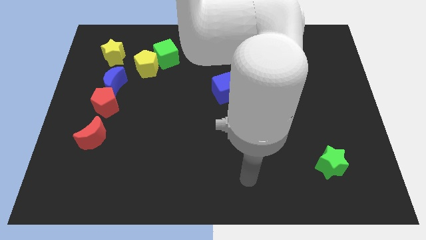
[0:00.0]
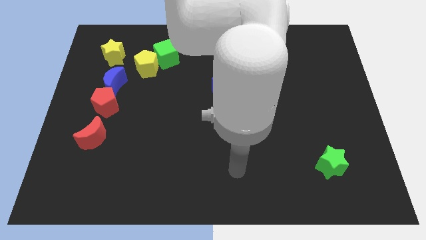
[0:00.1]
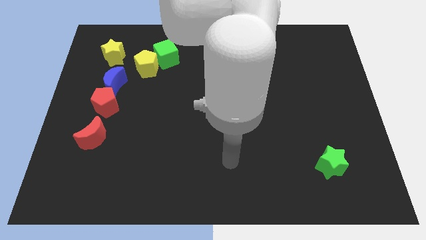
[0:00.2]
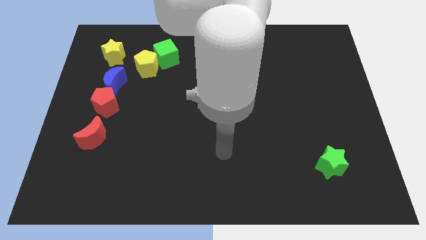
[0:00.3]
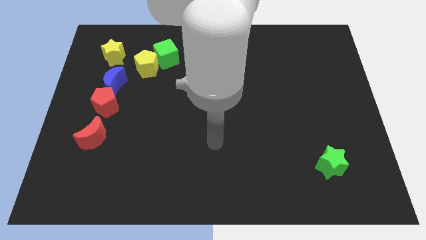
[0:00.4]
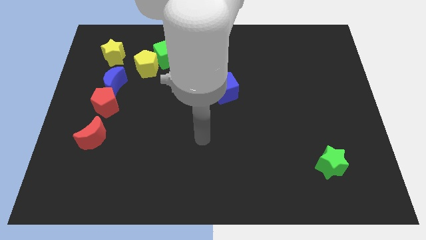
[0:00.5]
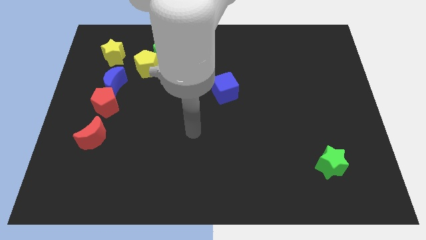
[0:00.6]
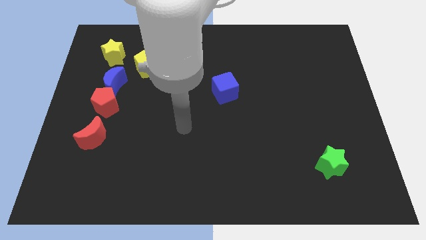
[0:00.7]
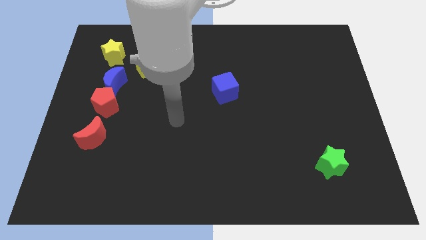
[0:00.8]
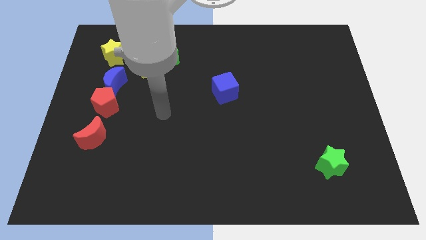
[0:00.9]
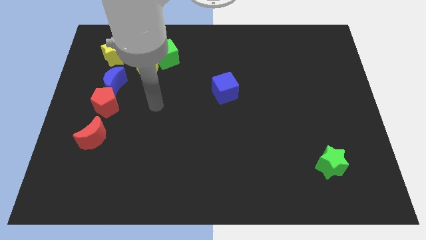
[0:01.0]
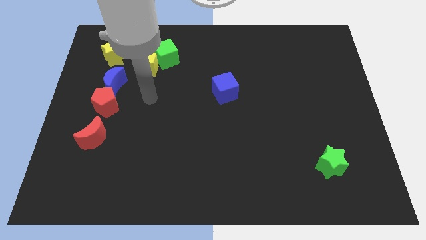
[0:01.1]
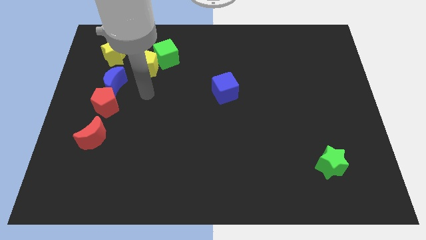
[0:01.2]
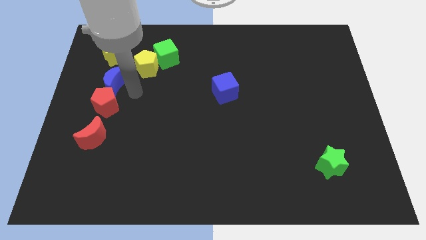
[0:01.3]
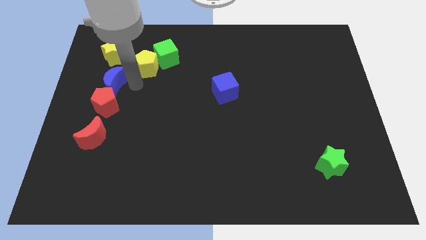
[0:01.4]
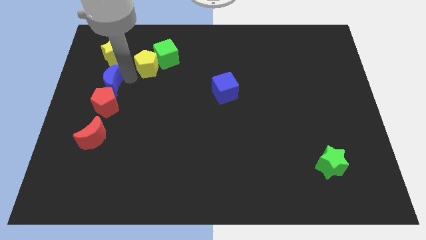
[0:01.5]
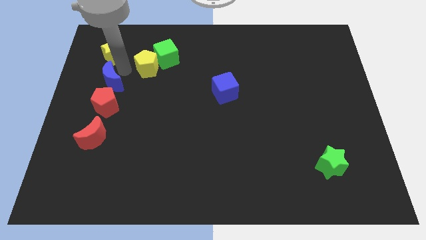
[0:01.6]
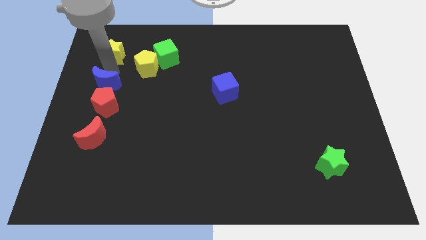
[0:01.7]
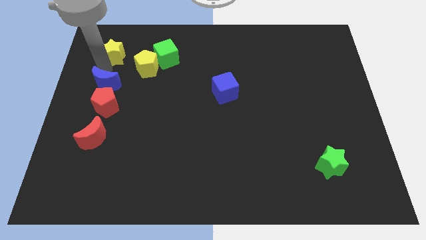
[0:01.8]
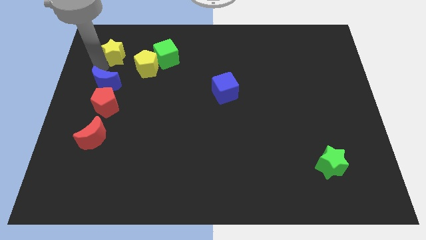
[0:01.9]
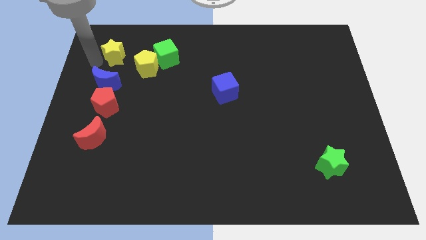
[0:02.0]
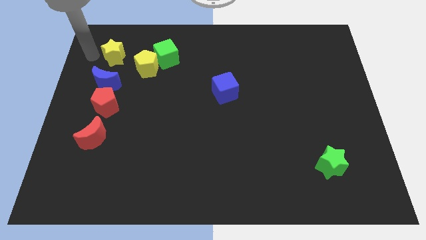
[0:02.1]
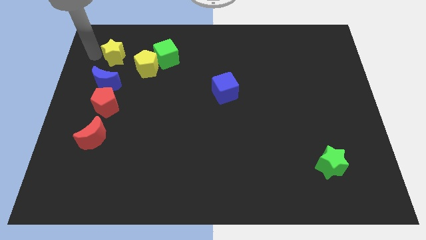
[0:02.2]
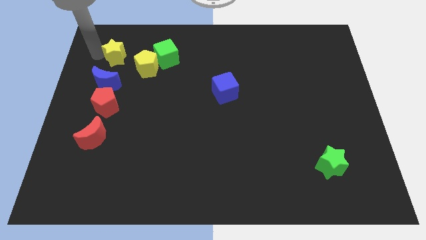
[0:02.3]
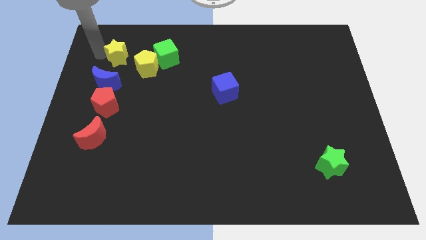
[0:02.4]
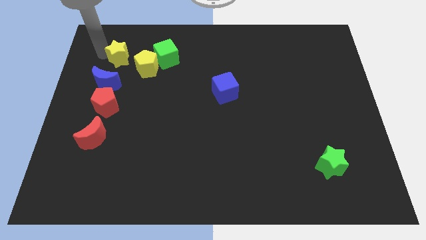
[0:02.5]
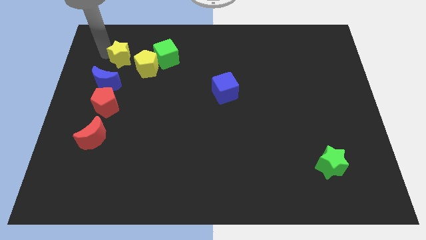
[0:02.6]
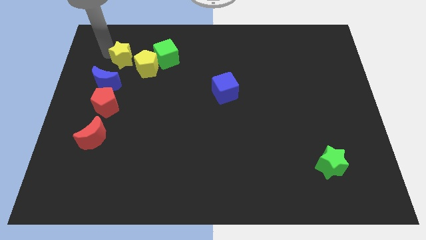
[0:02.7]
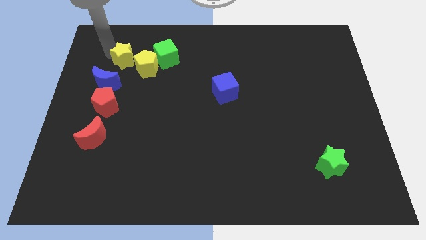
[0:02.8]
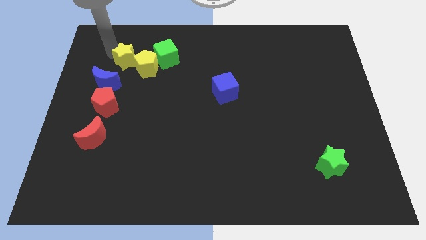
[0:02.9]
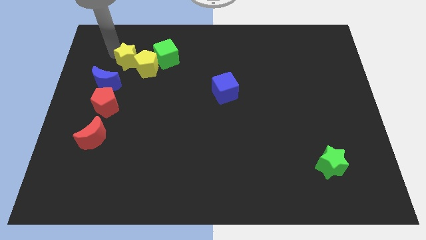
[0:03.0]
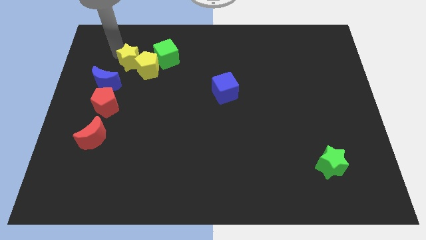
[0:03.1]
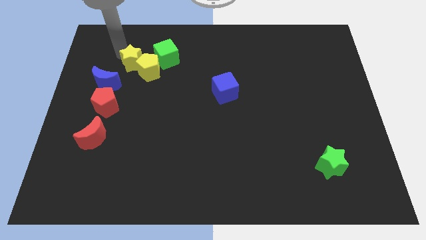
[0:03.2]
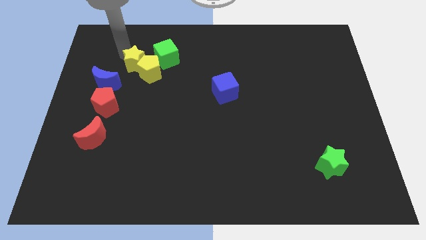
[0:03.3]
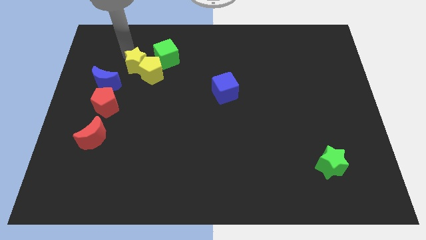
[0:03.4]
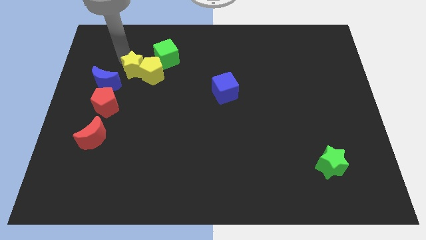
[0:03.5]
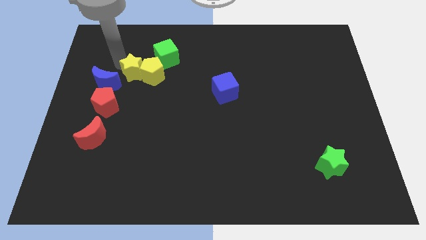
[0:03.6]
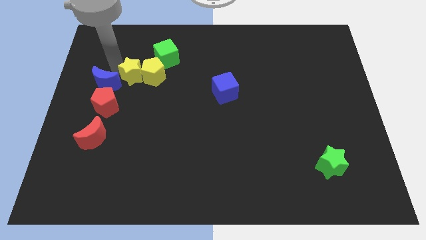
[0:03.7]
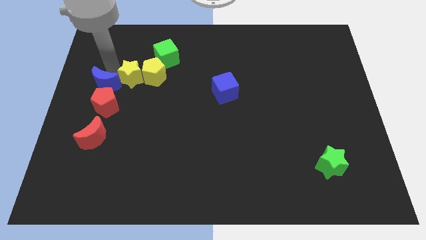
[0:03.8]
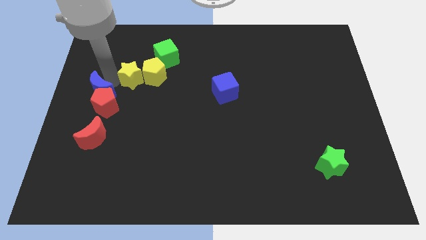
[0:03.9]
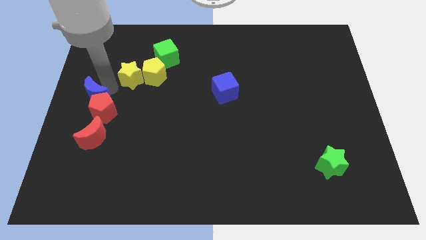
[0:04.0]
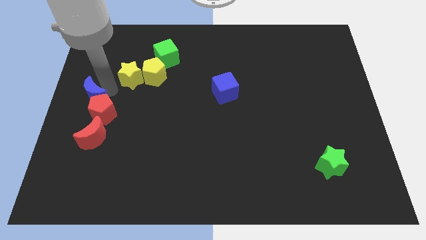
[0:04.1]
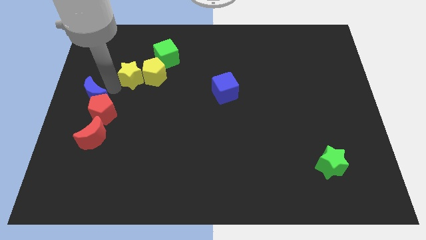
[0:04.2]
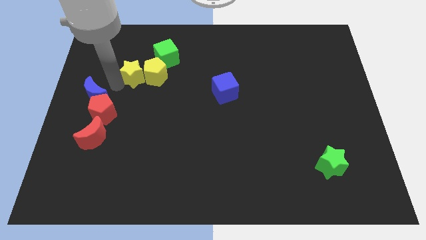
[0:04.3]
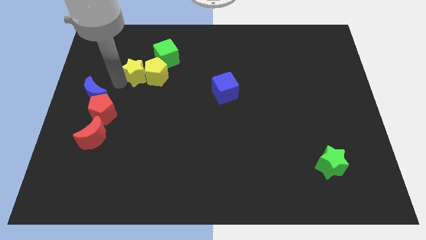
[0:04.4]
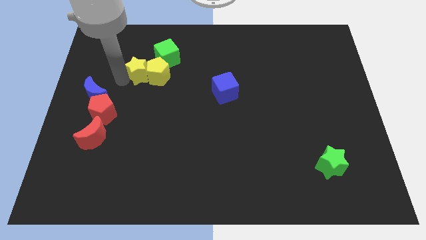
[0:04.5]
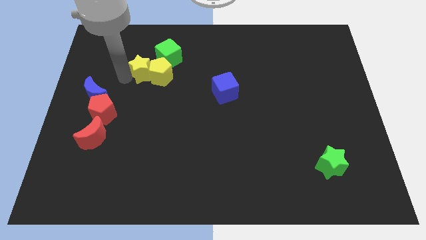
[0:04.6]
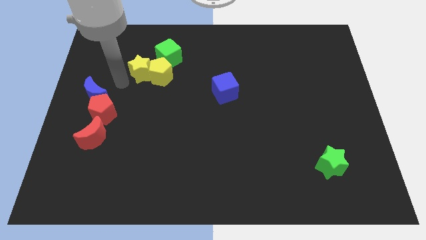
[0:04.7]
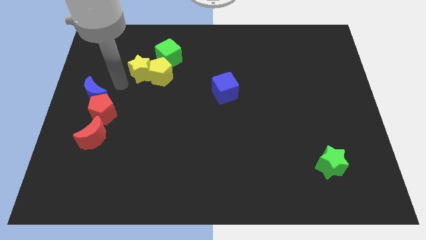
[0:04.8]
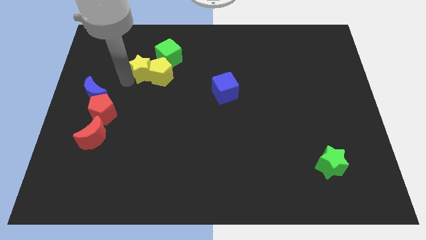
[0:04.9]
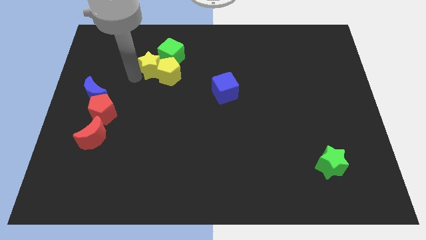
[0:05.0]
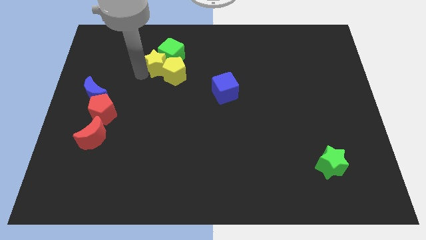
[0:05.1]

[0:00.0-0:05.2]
move the yellow star close to the green cube

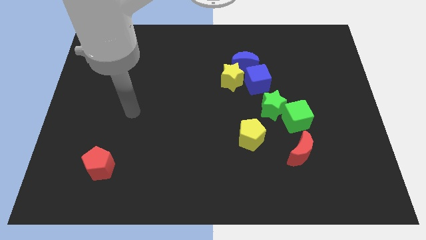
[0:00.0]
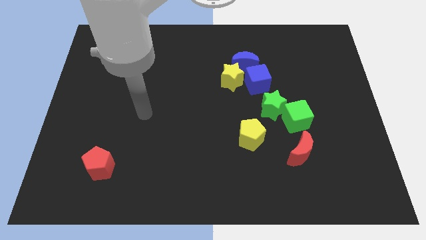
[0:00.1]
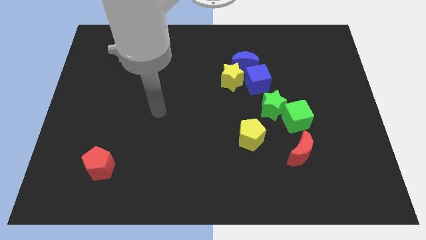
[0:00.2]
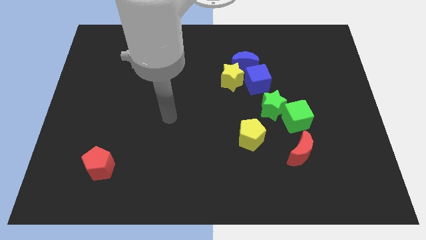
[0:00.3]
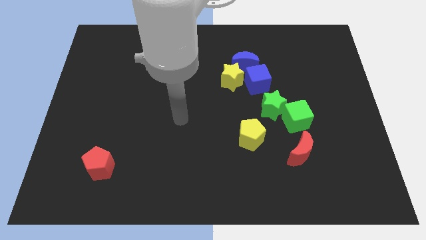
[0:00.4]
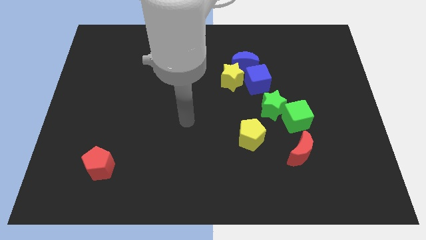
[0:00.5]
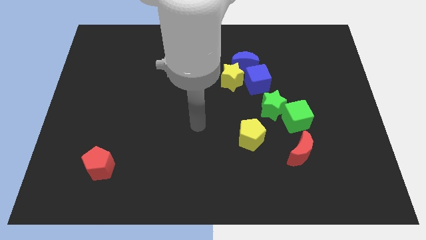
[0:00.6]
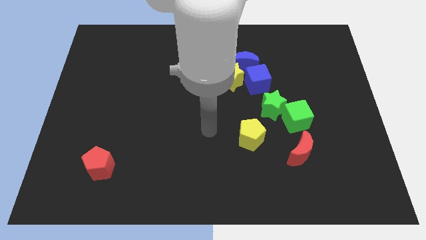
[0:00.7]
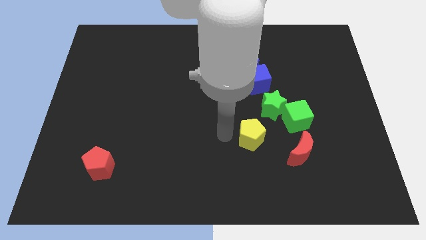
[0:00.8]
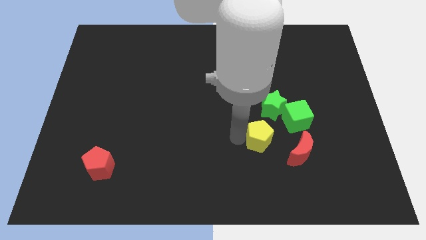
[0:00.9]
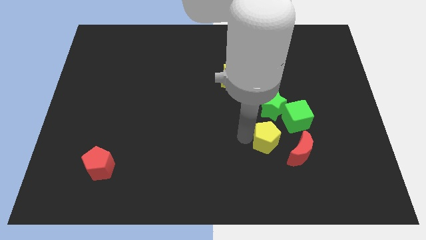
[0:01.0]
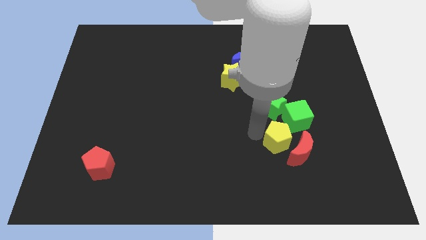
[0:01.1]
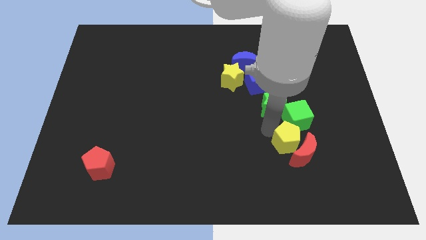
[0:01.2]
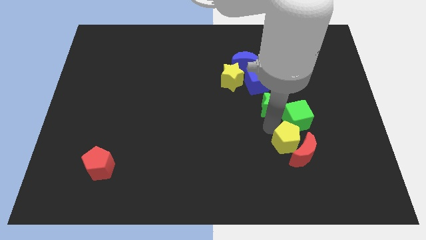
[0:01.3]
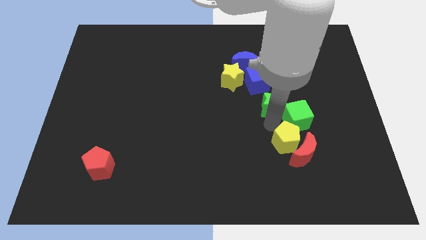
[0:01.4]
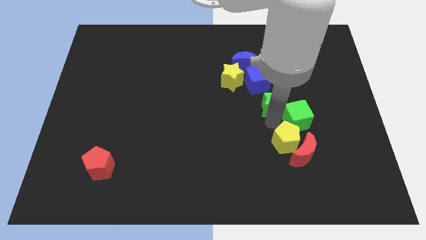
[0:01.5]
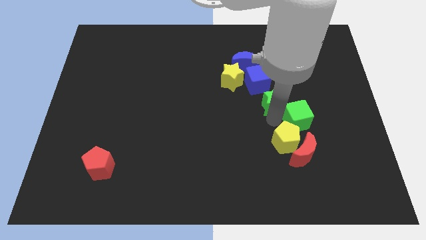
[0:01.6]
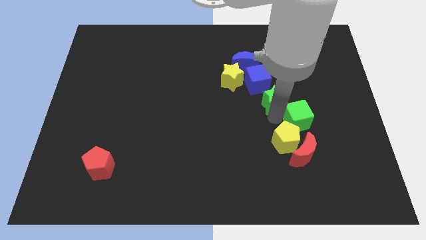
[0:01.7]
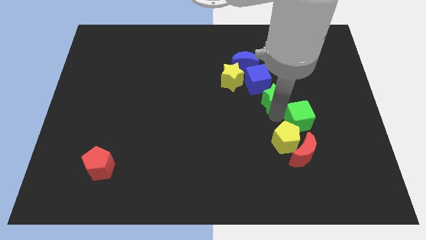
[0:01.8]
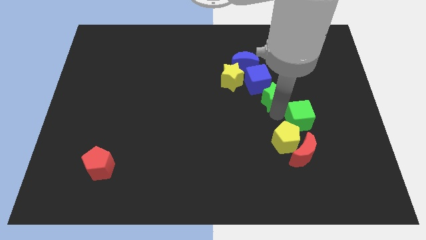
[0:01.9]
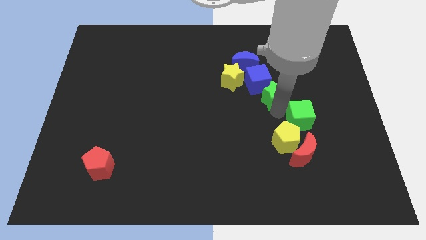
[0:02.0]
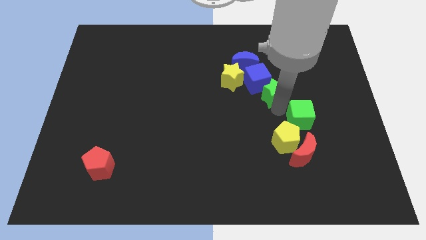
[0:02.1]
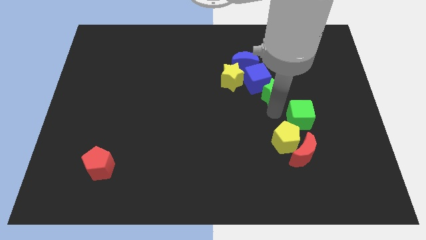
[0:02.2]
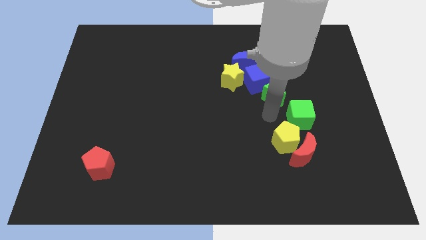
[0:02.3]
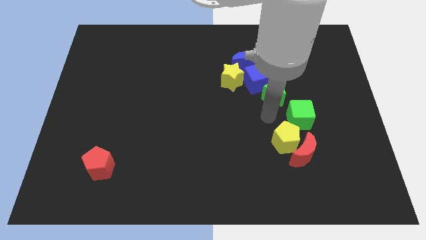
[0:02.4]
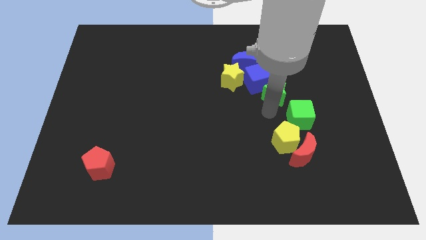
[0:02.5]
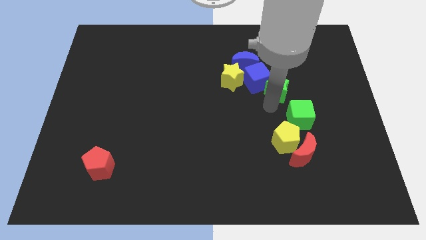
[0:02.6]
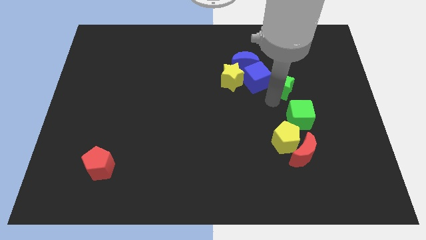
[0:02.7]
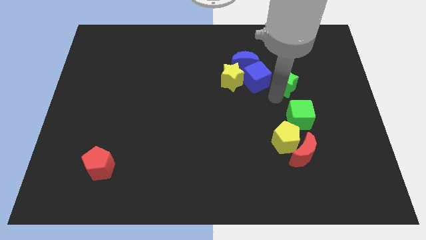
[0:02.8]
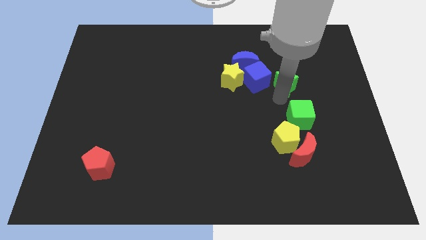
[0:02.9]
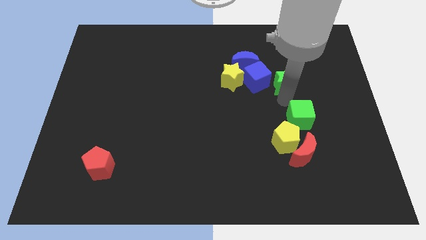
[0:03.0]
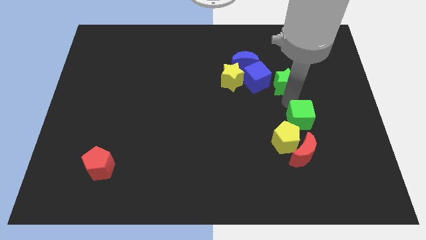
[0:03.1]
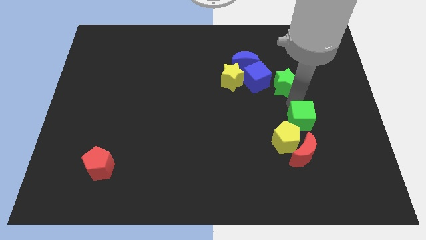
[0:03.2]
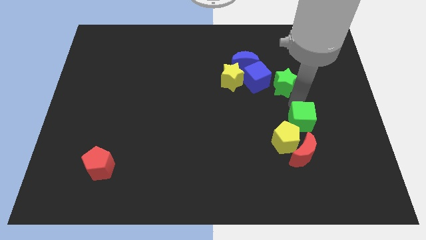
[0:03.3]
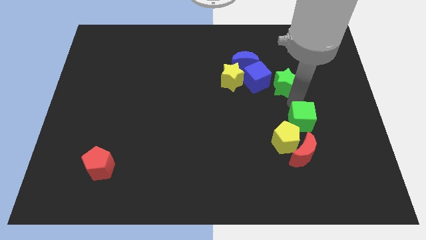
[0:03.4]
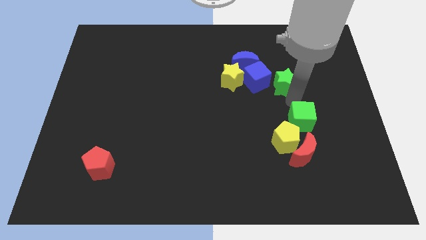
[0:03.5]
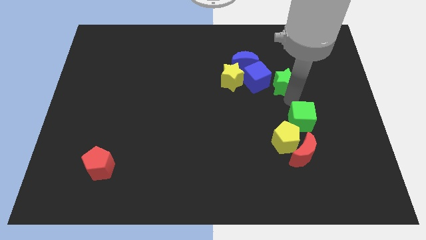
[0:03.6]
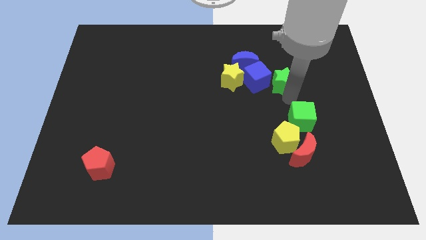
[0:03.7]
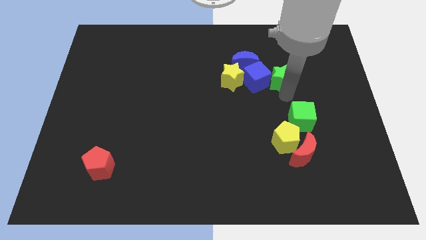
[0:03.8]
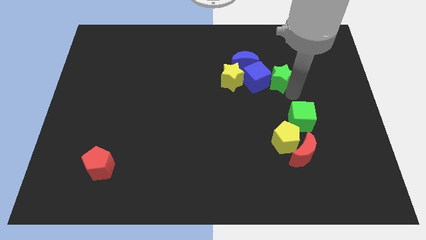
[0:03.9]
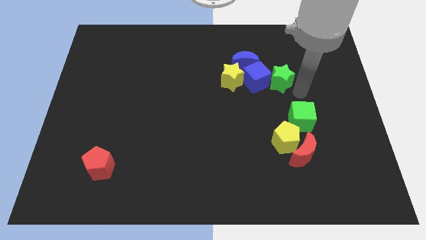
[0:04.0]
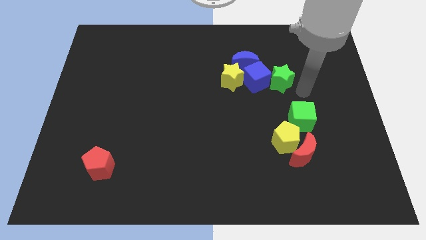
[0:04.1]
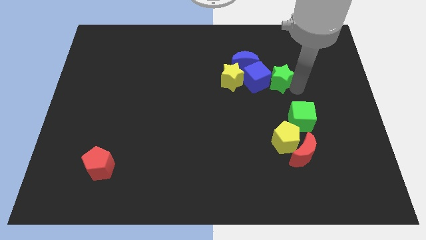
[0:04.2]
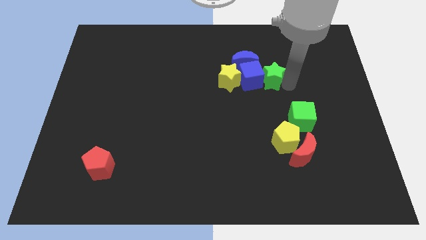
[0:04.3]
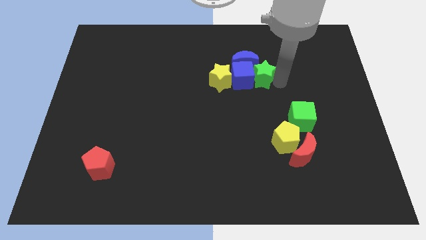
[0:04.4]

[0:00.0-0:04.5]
slide the green star close to the blue moon
